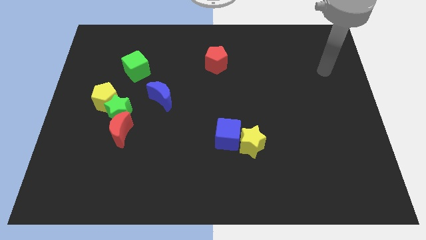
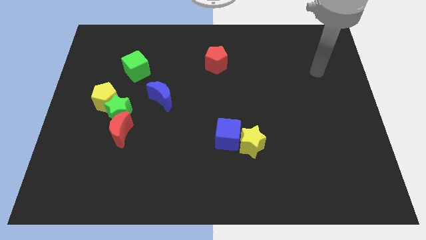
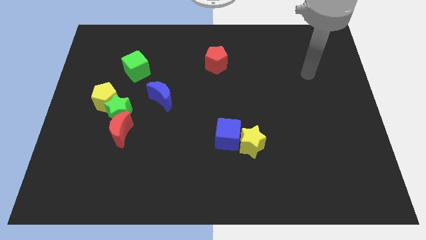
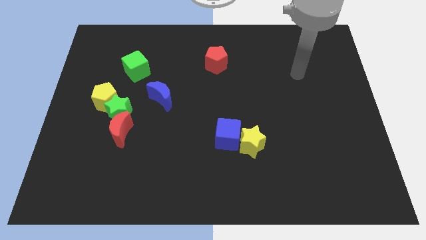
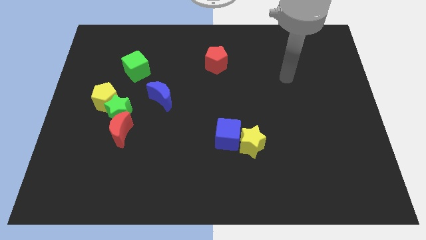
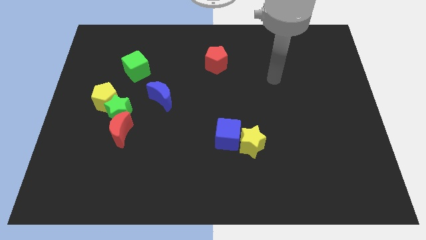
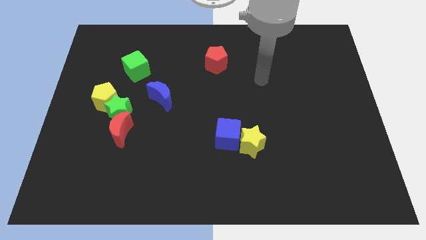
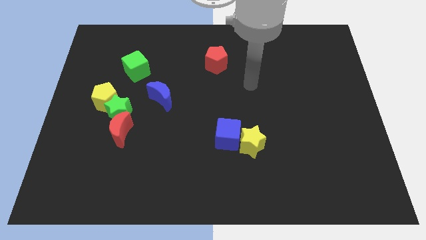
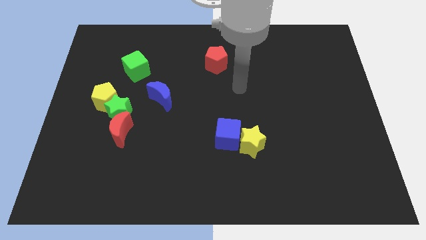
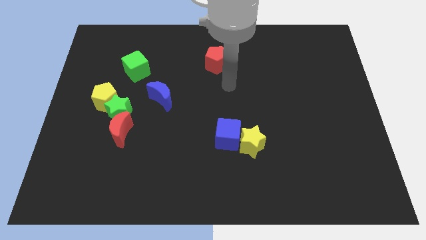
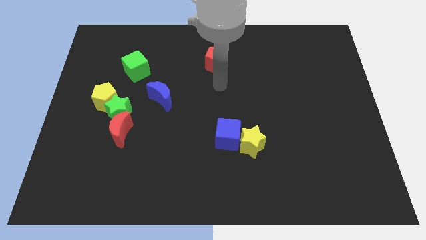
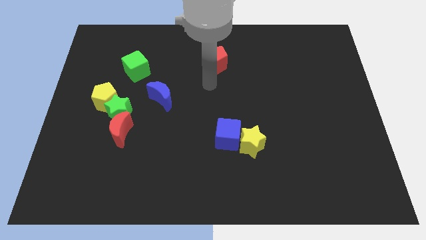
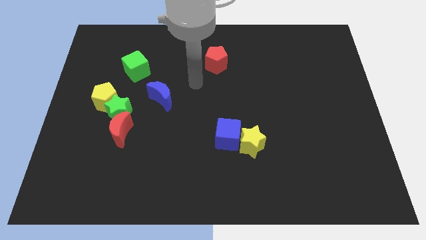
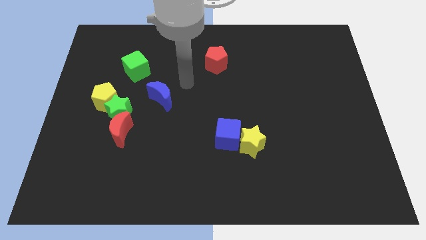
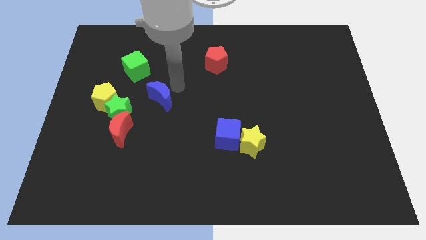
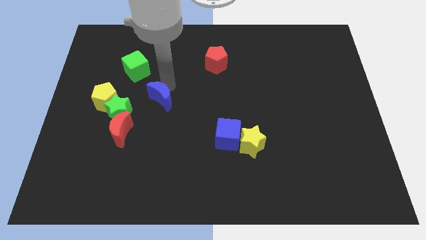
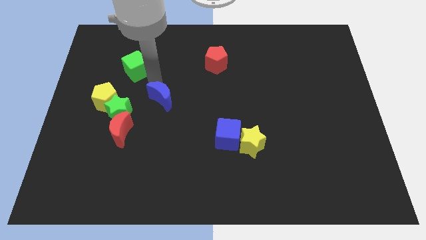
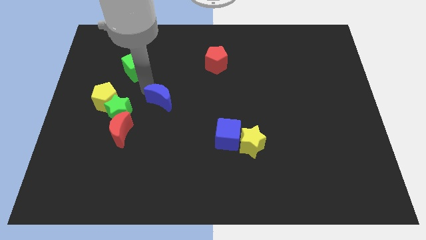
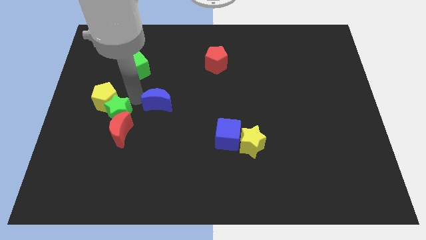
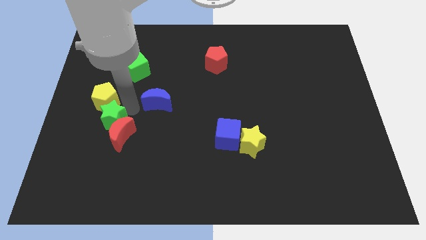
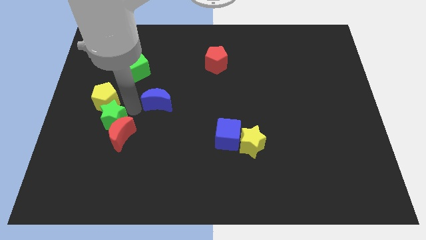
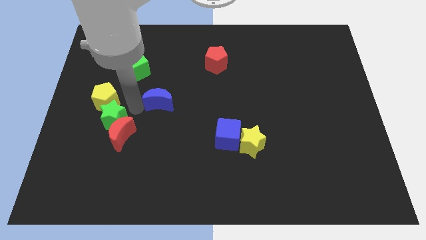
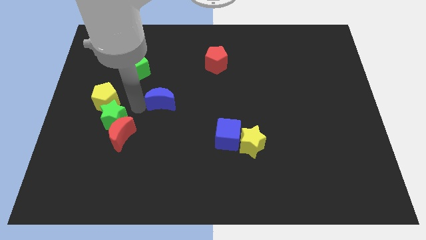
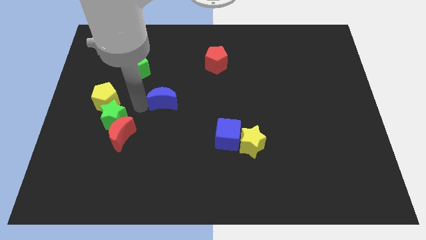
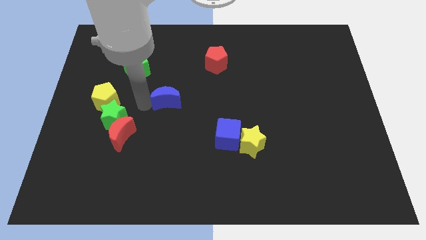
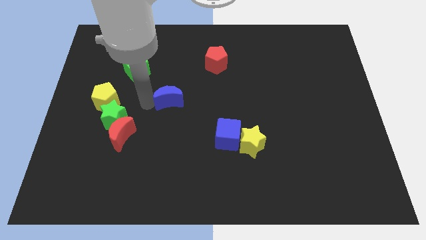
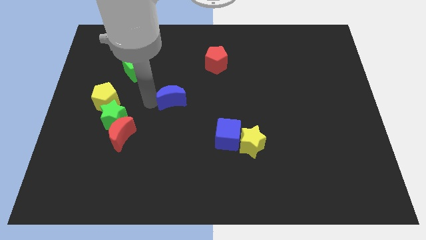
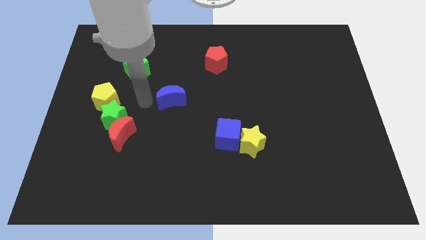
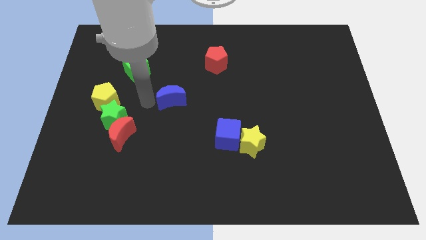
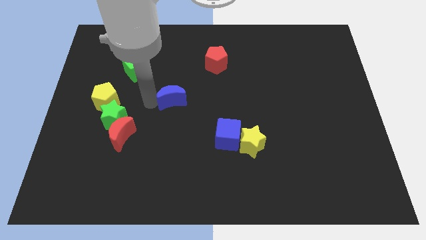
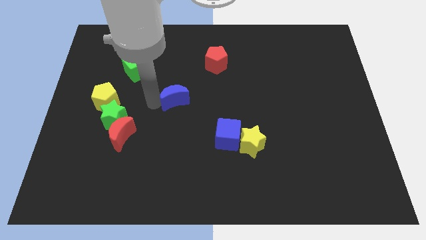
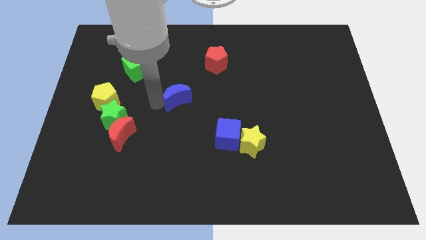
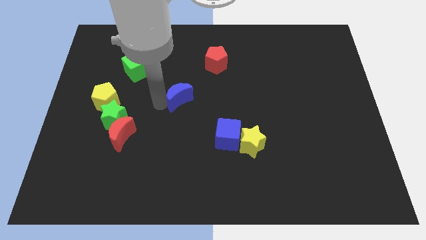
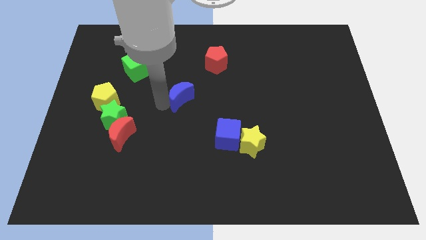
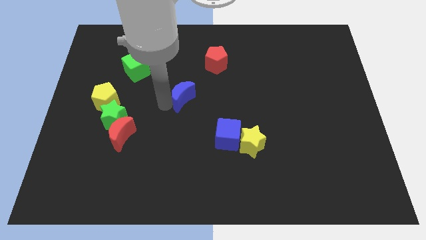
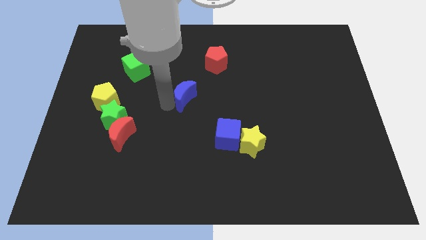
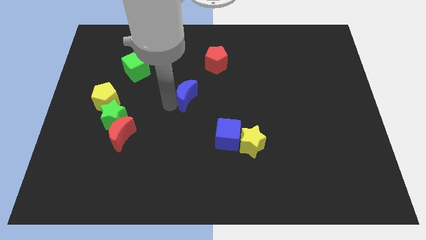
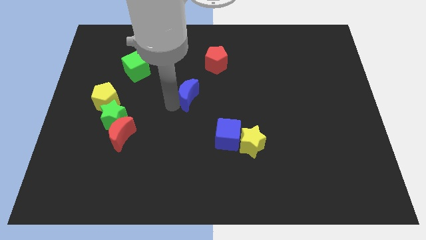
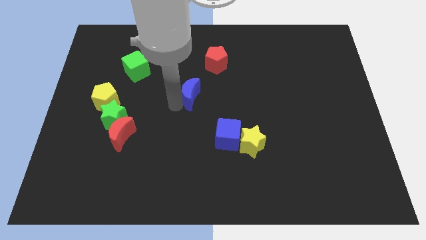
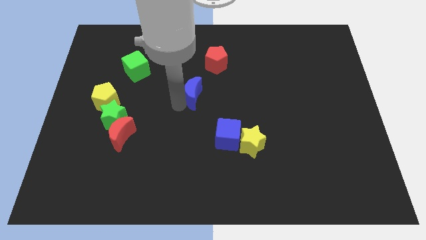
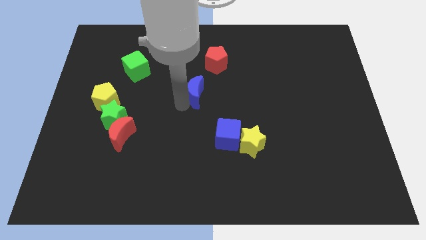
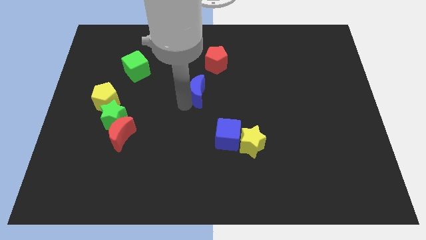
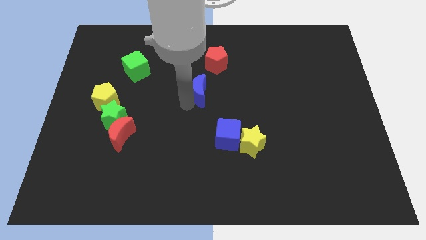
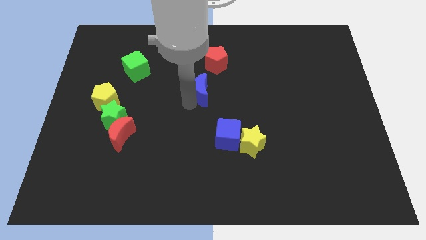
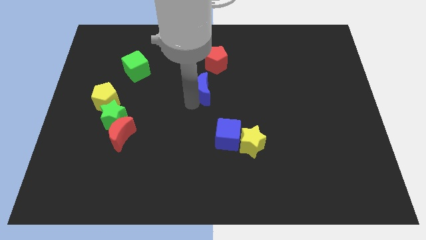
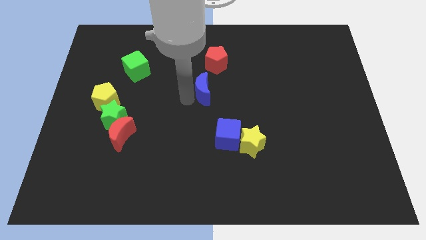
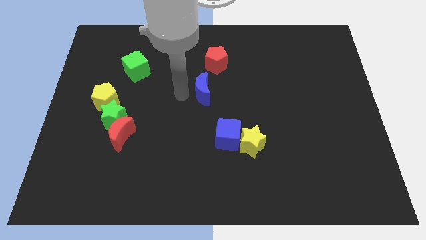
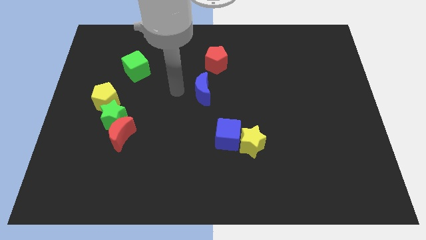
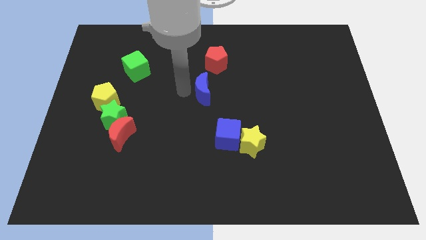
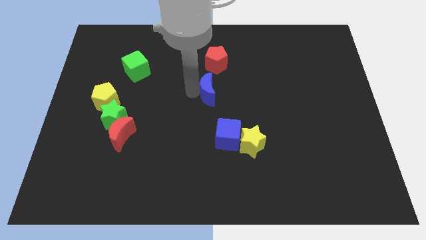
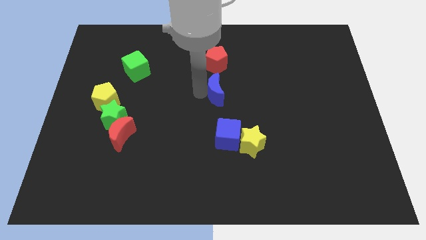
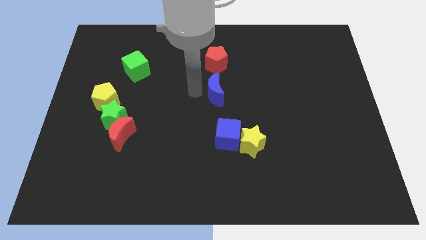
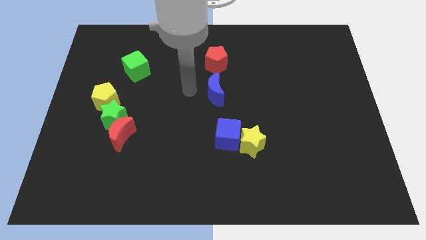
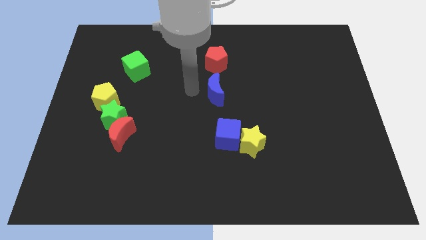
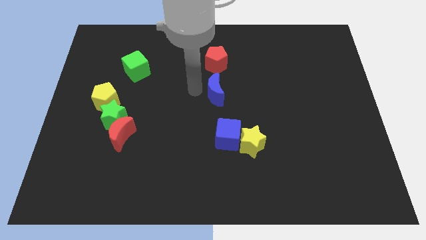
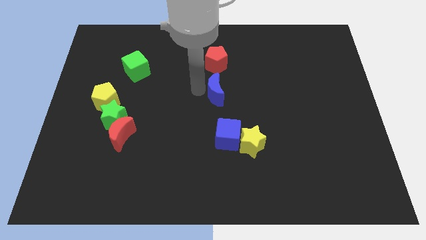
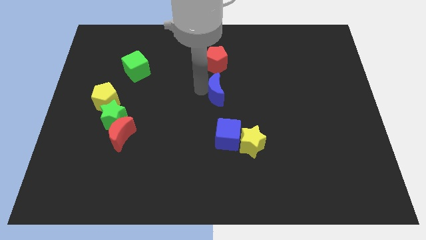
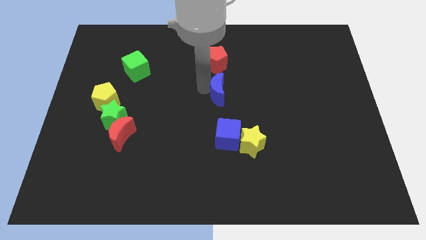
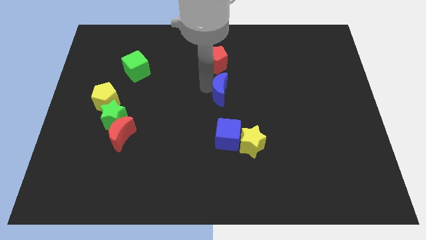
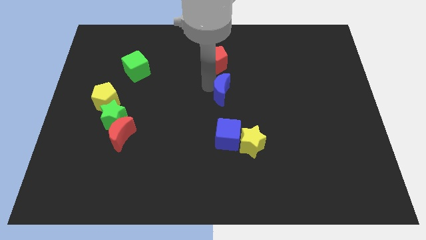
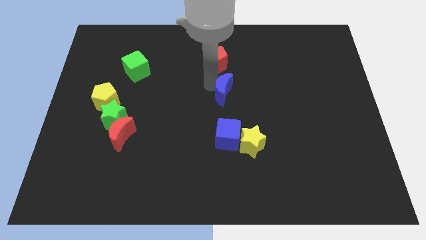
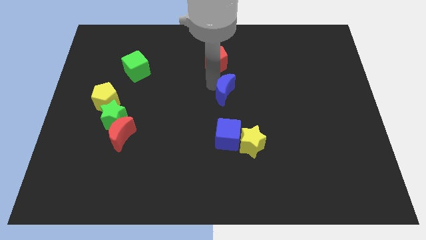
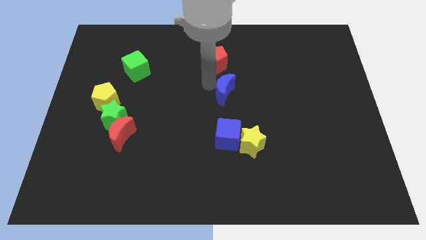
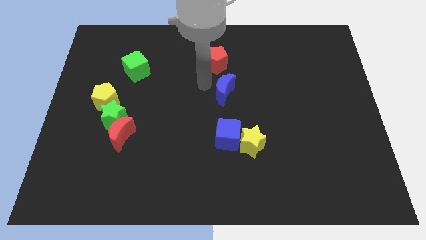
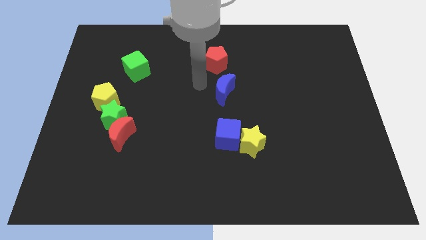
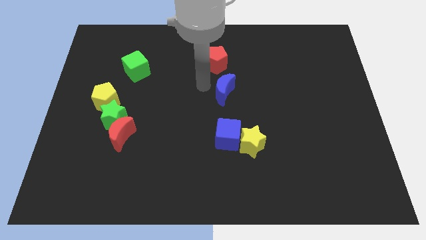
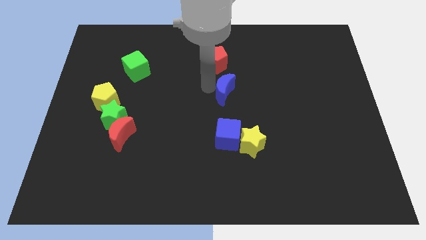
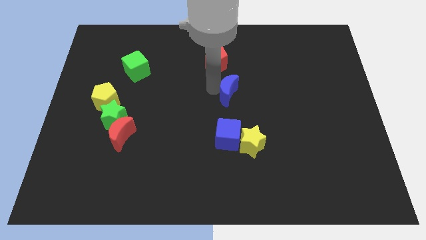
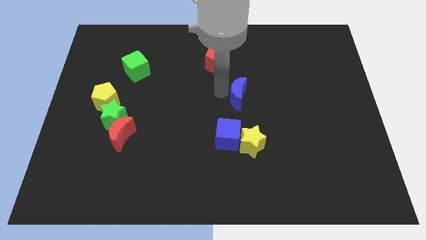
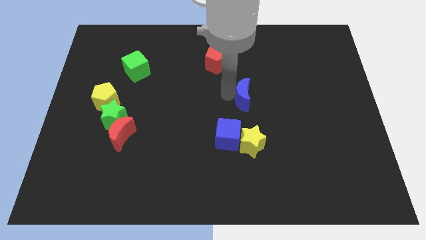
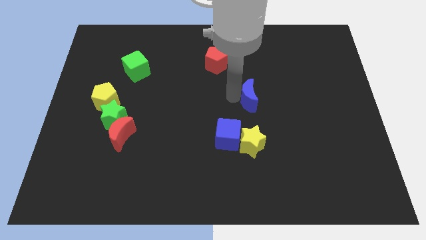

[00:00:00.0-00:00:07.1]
push the blue moon to the right

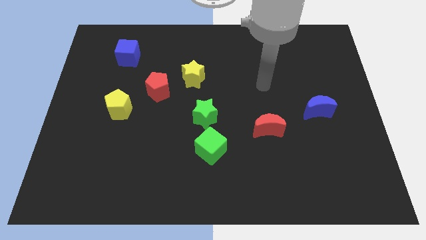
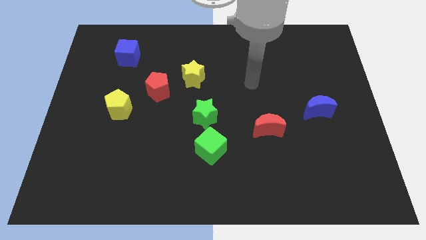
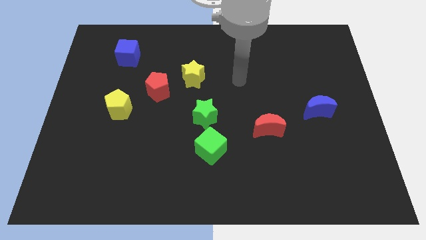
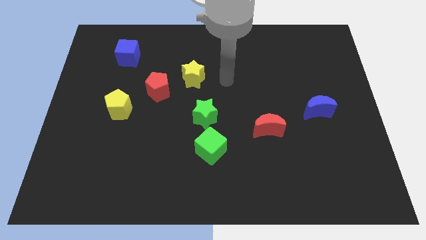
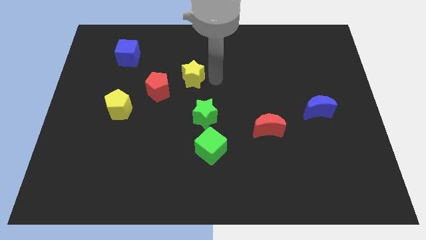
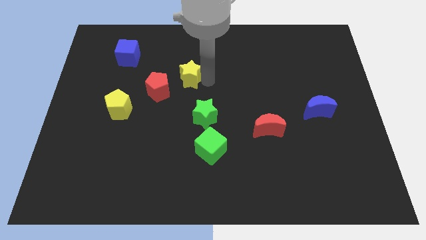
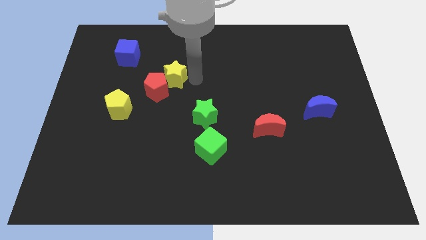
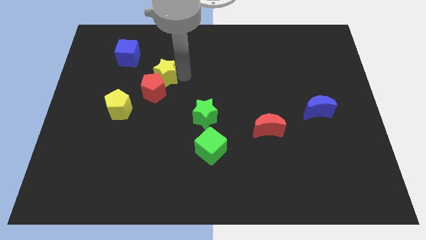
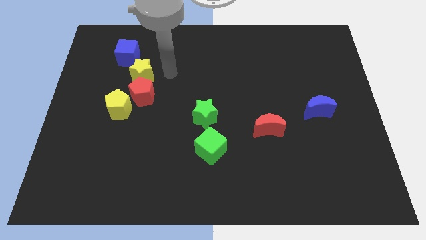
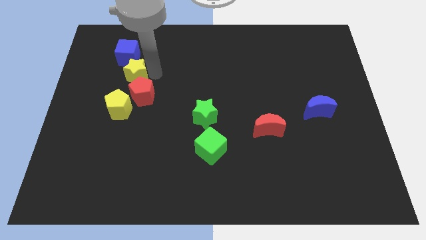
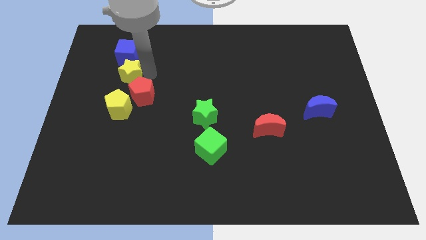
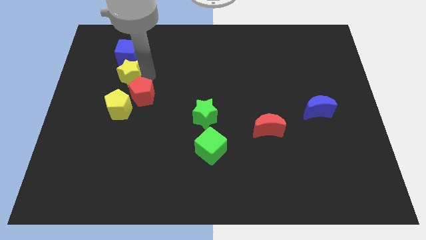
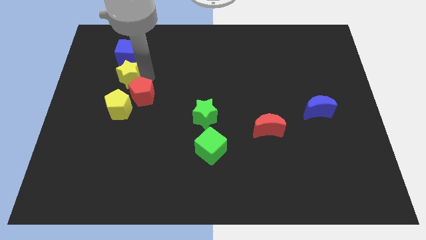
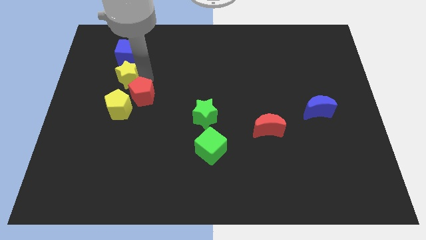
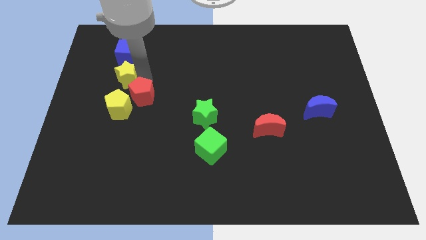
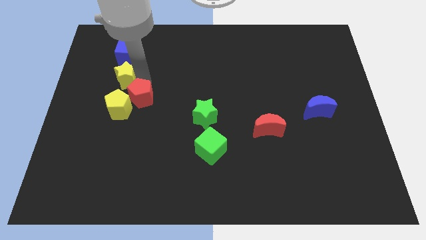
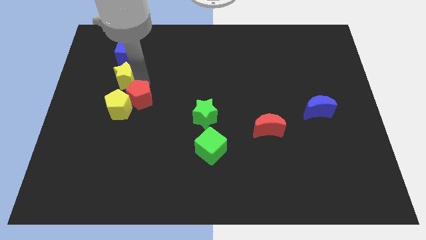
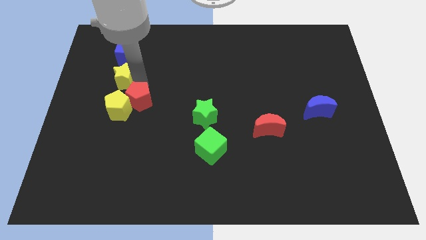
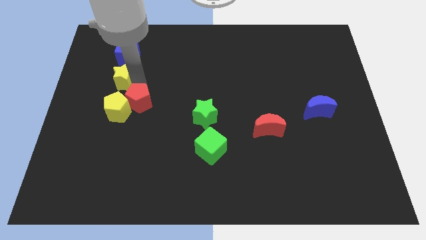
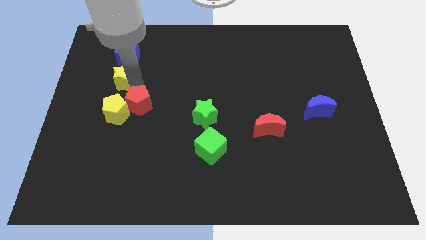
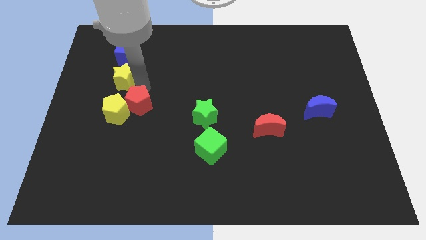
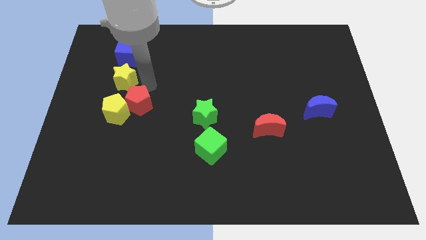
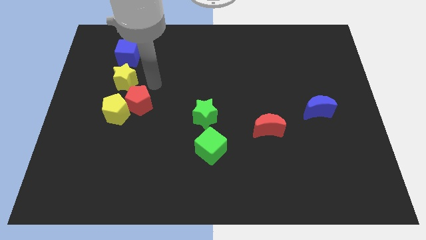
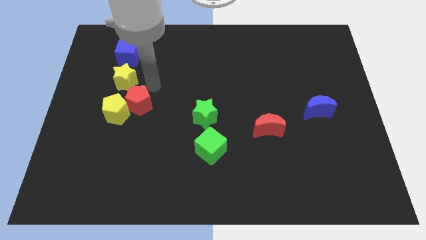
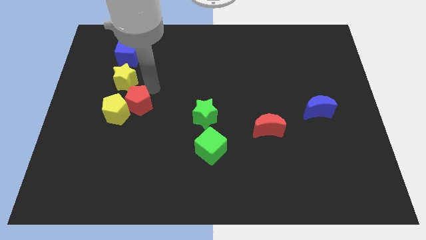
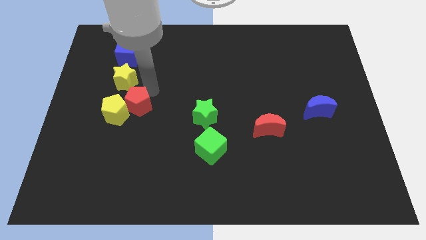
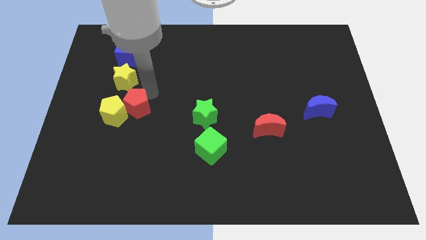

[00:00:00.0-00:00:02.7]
slightly move the red pentagon diagonally down and left
